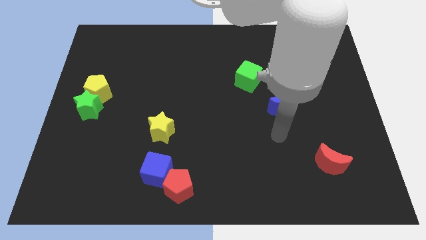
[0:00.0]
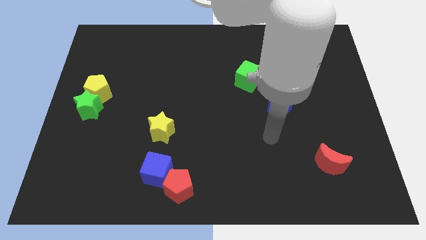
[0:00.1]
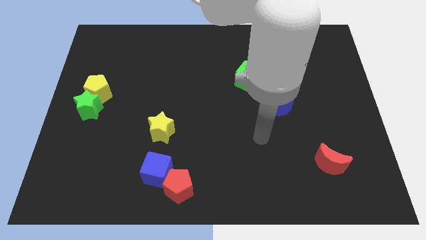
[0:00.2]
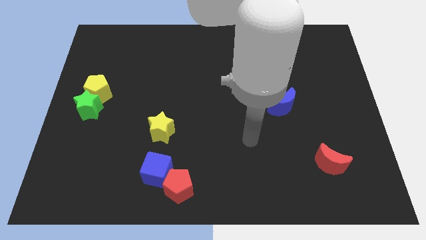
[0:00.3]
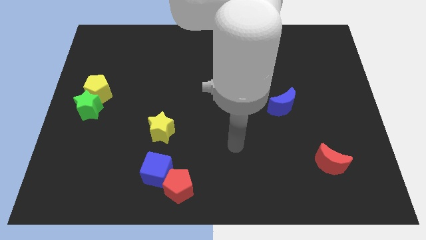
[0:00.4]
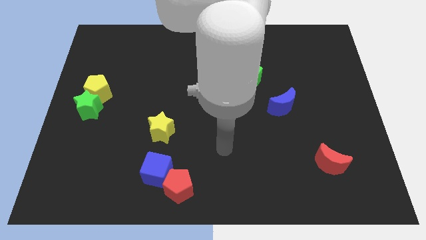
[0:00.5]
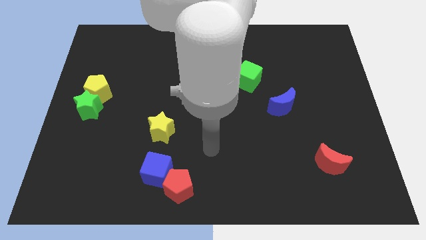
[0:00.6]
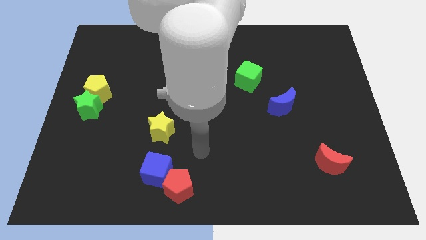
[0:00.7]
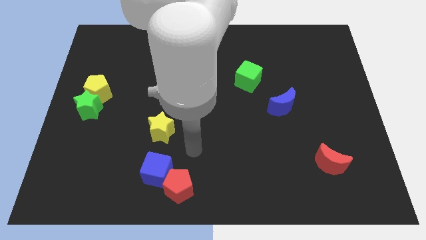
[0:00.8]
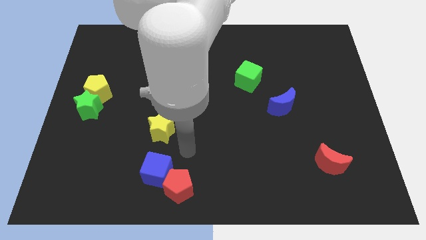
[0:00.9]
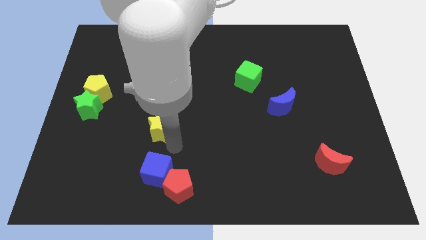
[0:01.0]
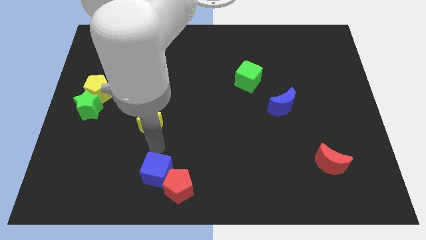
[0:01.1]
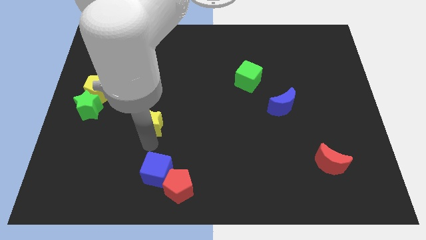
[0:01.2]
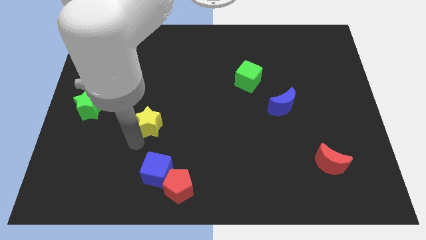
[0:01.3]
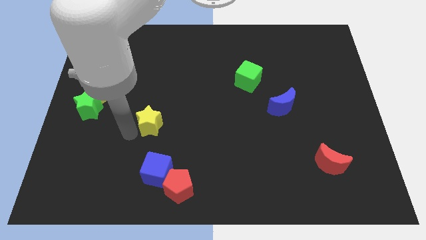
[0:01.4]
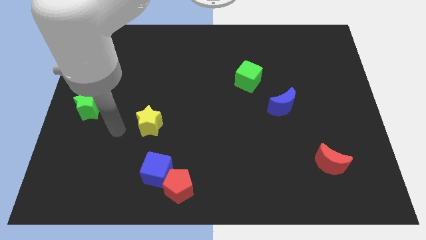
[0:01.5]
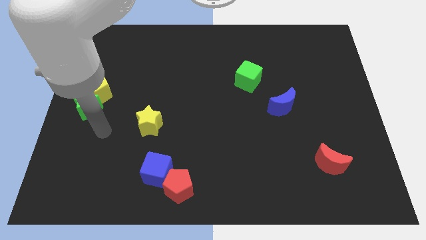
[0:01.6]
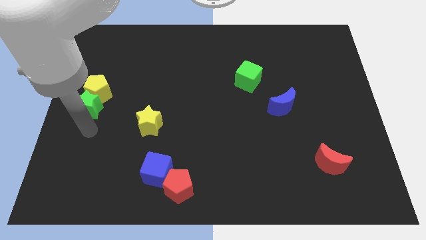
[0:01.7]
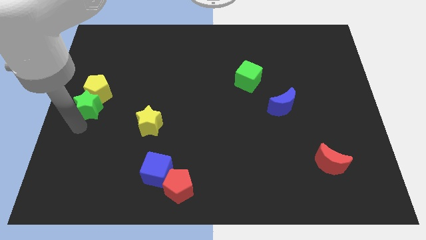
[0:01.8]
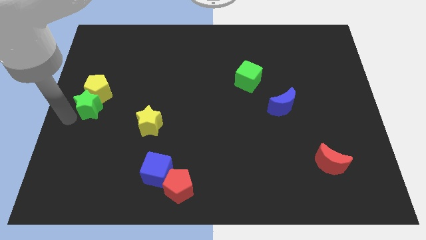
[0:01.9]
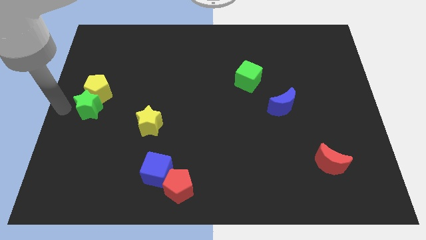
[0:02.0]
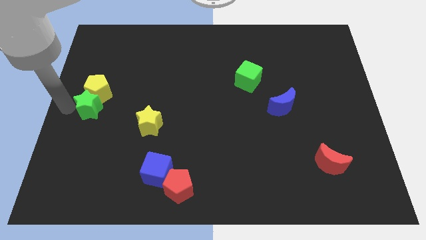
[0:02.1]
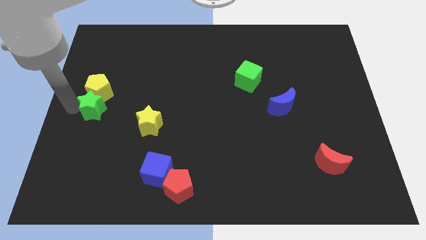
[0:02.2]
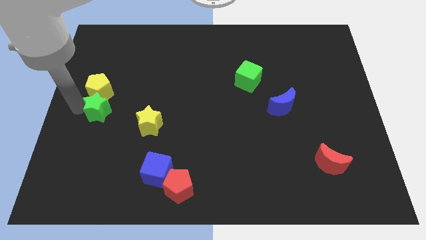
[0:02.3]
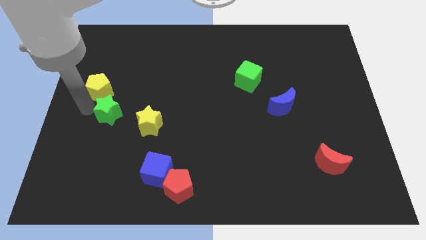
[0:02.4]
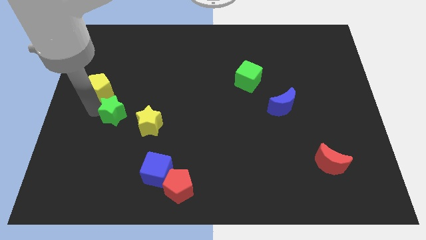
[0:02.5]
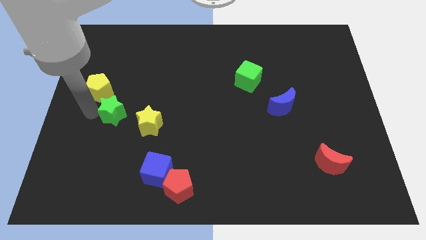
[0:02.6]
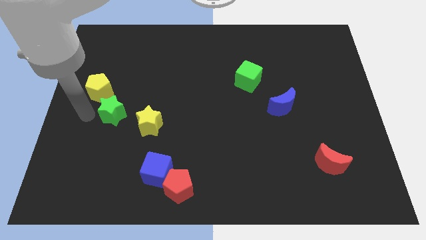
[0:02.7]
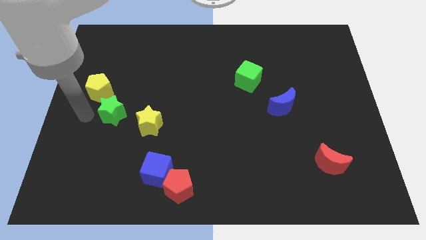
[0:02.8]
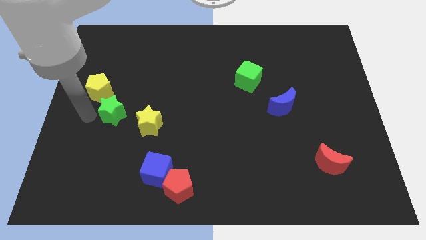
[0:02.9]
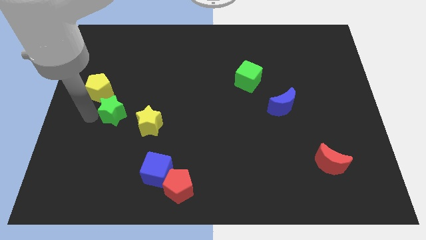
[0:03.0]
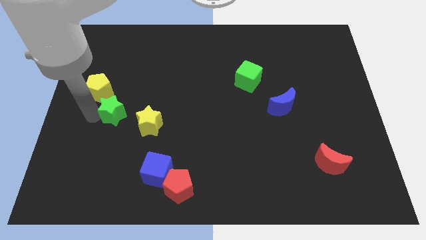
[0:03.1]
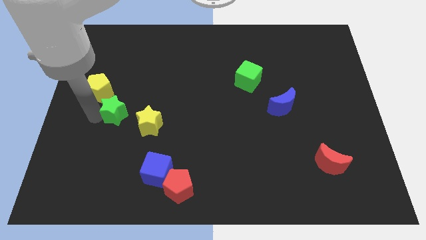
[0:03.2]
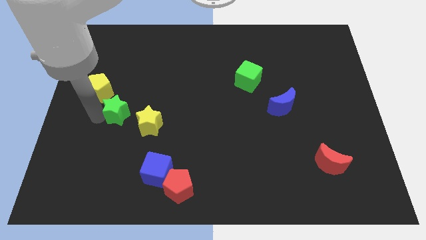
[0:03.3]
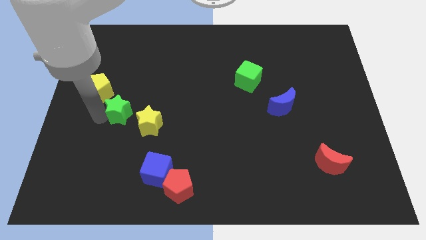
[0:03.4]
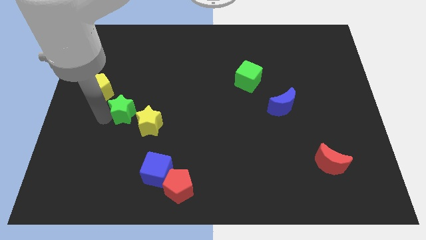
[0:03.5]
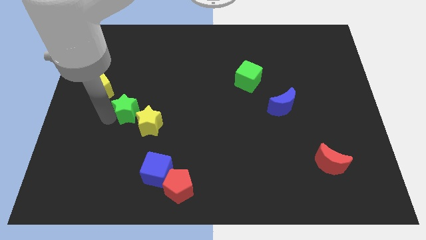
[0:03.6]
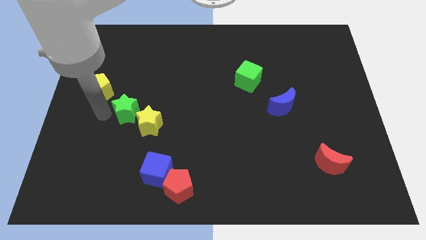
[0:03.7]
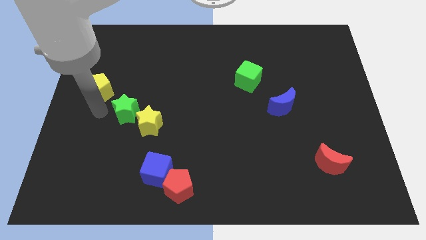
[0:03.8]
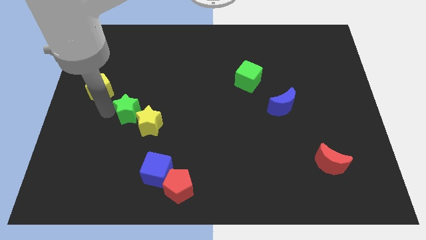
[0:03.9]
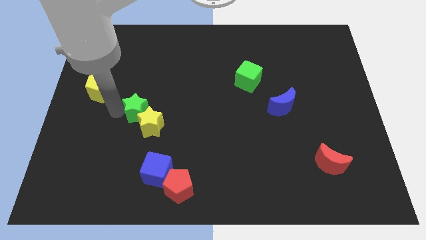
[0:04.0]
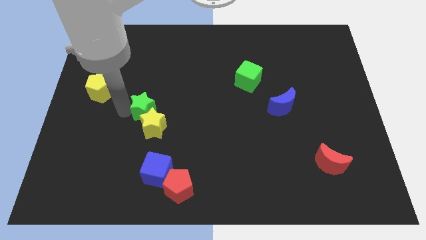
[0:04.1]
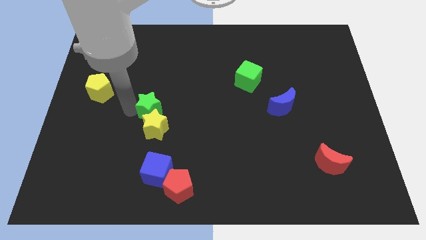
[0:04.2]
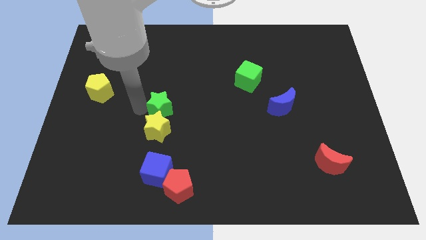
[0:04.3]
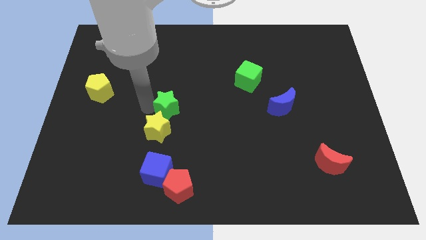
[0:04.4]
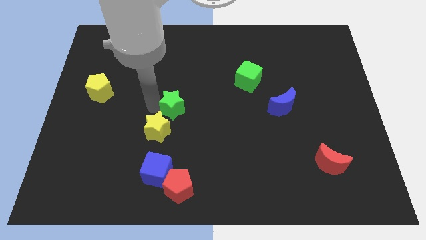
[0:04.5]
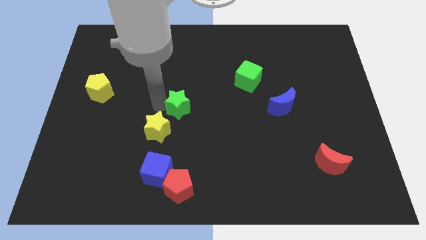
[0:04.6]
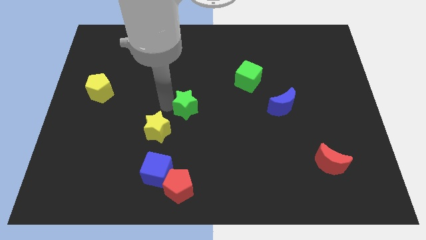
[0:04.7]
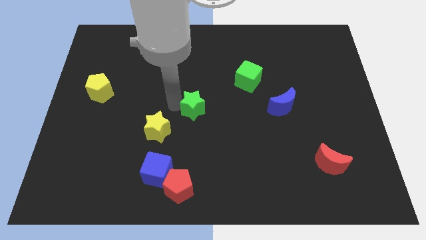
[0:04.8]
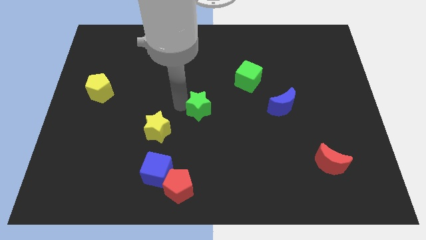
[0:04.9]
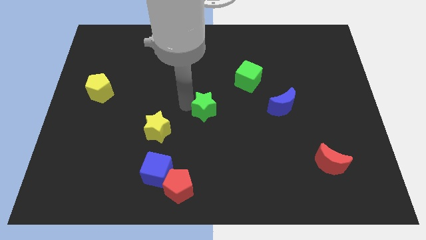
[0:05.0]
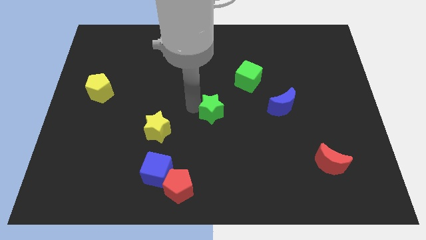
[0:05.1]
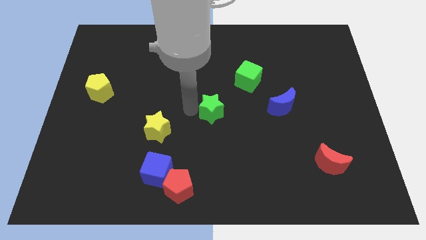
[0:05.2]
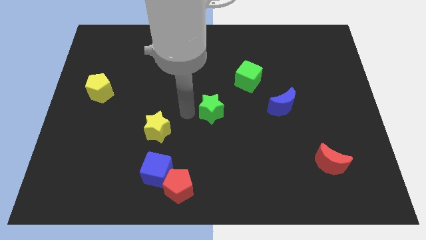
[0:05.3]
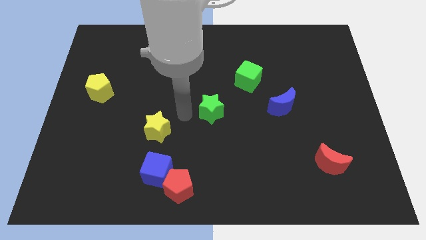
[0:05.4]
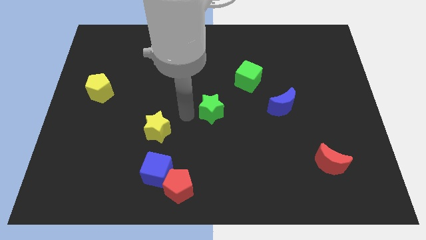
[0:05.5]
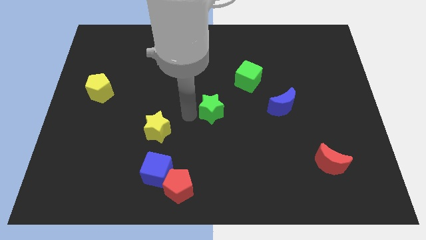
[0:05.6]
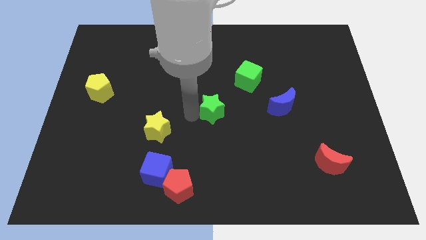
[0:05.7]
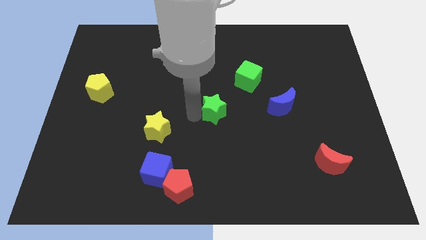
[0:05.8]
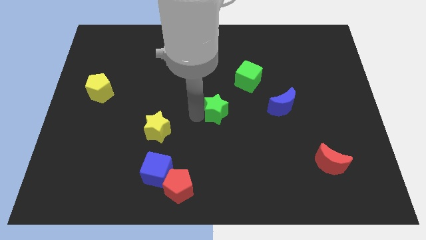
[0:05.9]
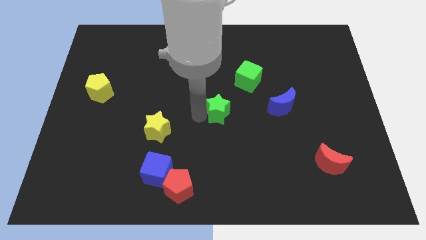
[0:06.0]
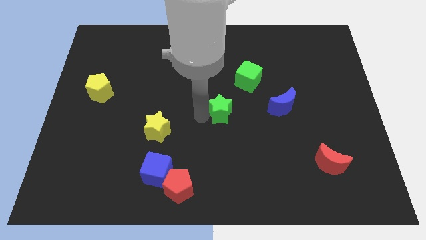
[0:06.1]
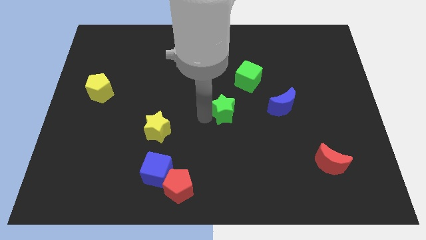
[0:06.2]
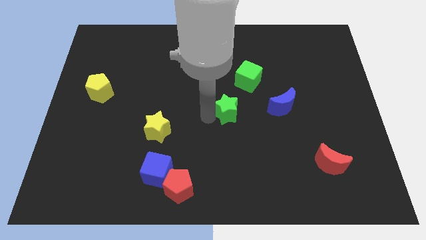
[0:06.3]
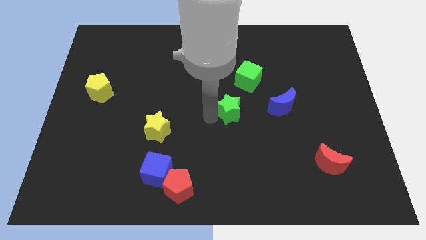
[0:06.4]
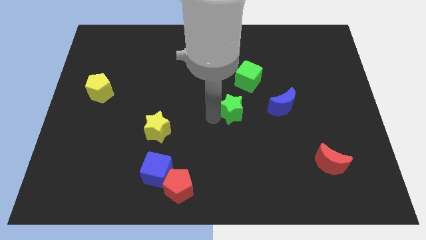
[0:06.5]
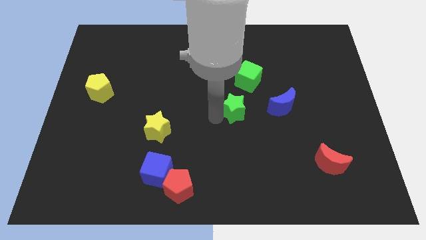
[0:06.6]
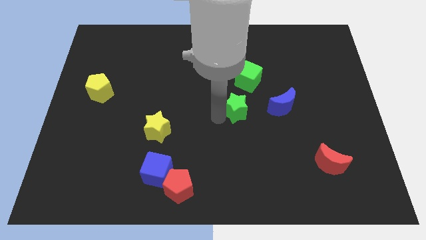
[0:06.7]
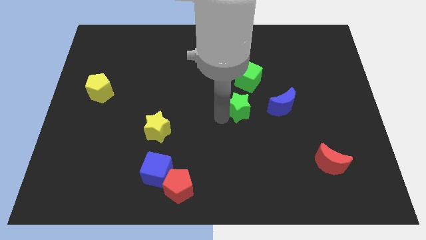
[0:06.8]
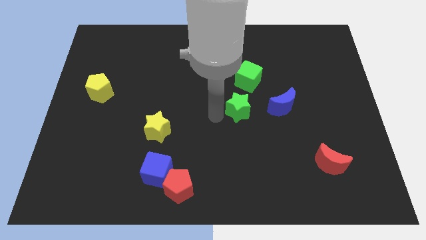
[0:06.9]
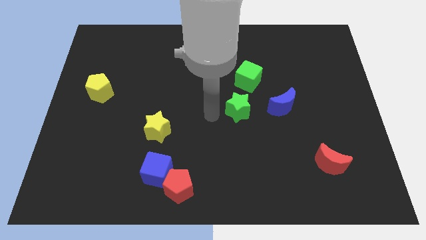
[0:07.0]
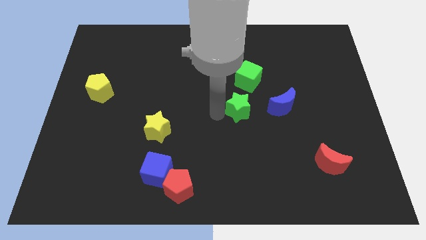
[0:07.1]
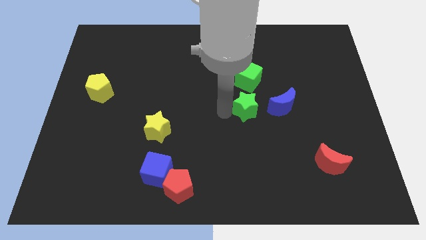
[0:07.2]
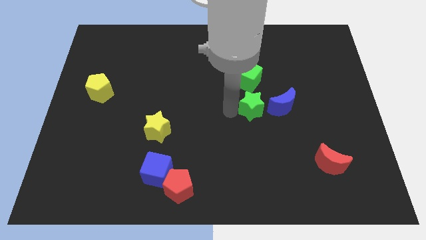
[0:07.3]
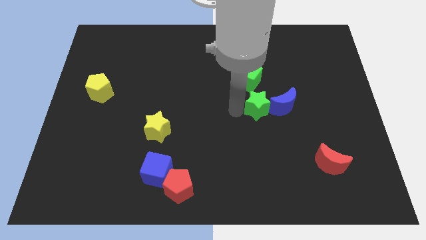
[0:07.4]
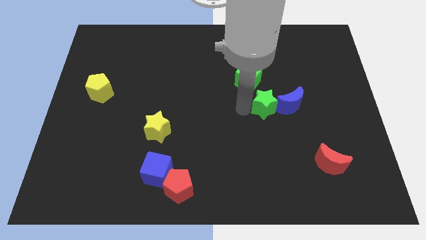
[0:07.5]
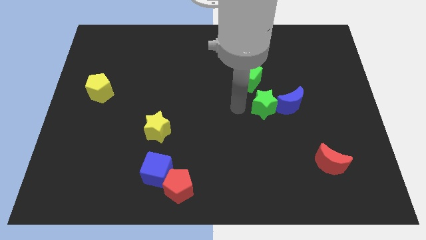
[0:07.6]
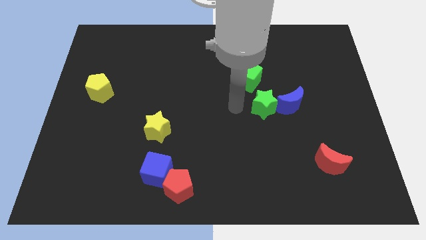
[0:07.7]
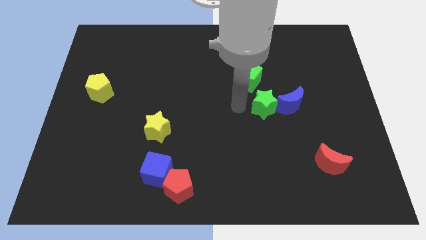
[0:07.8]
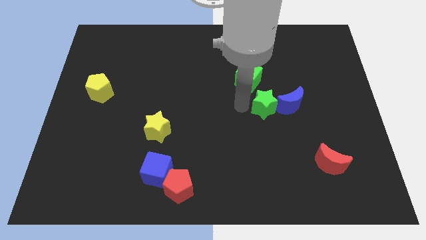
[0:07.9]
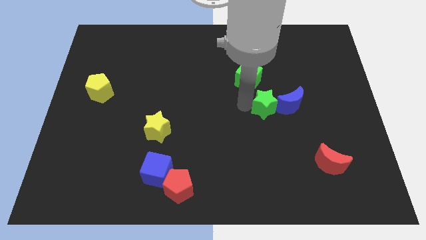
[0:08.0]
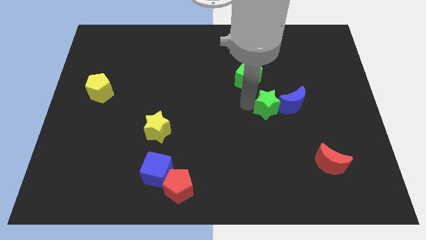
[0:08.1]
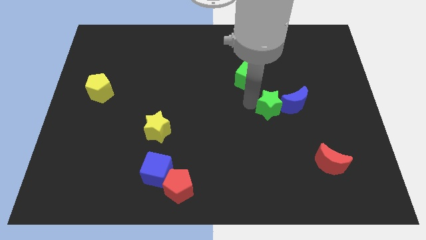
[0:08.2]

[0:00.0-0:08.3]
push the green star next to the blue moon
